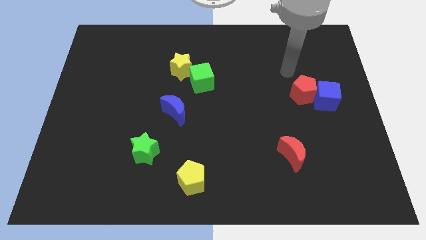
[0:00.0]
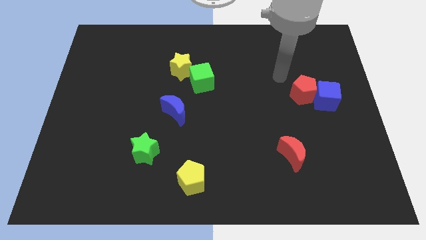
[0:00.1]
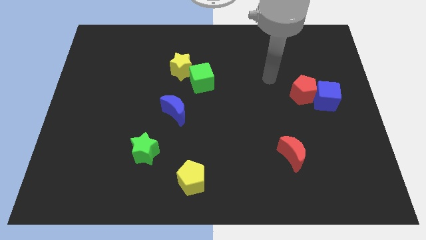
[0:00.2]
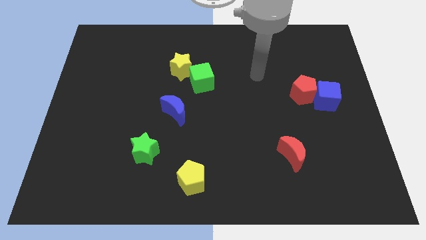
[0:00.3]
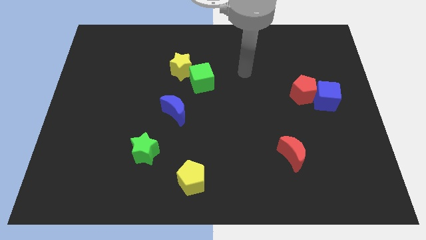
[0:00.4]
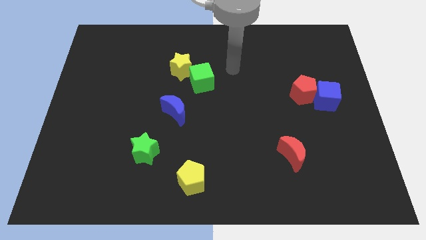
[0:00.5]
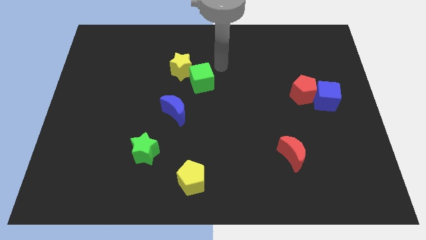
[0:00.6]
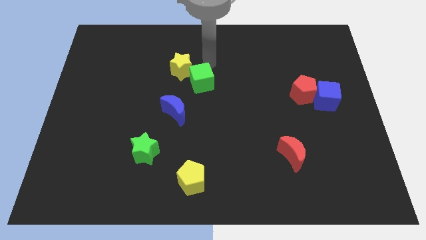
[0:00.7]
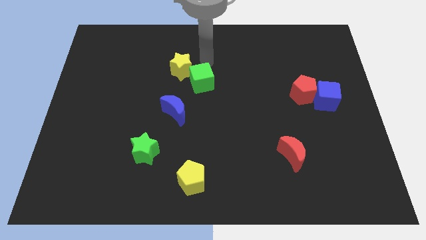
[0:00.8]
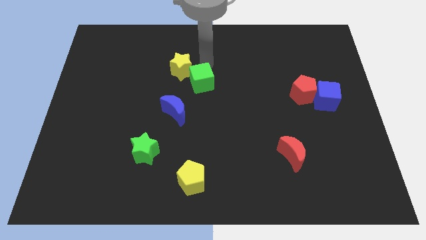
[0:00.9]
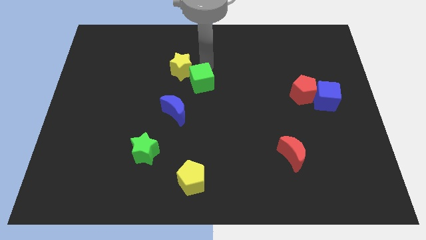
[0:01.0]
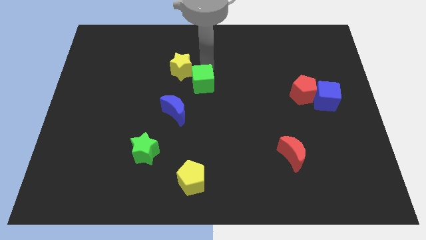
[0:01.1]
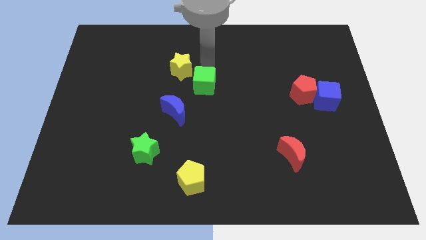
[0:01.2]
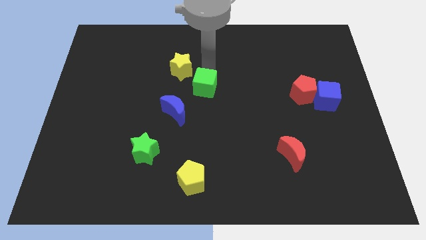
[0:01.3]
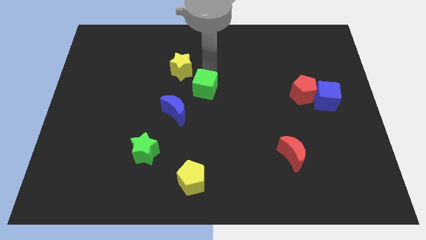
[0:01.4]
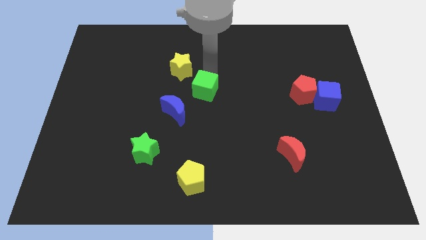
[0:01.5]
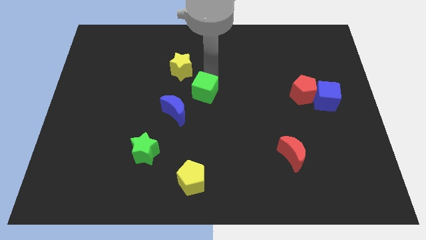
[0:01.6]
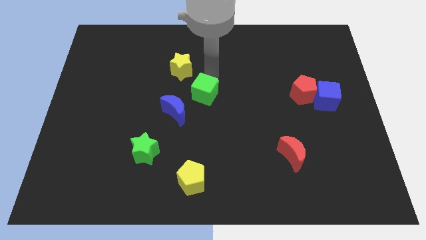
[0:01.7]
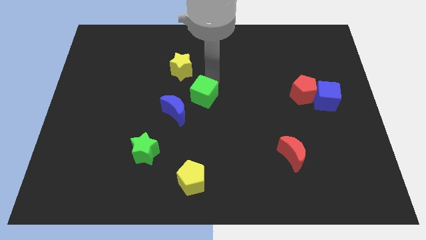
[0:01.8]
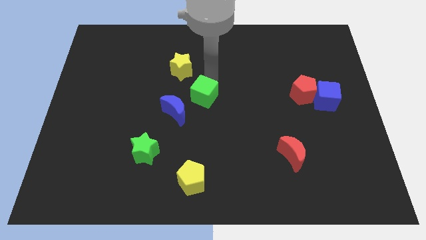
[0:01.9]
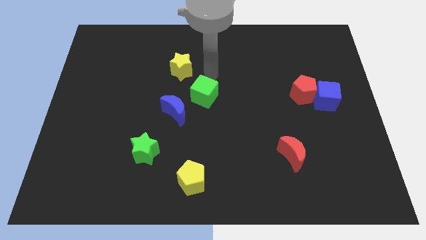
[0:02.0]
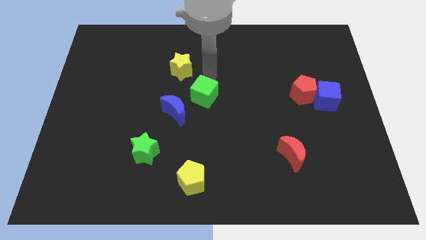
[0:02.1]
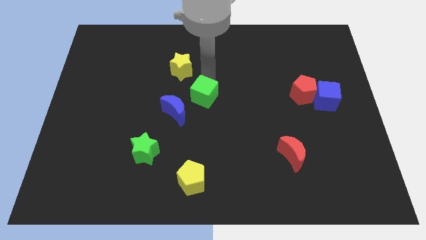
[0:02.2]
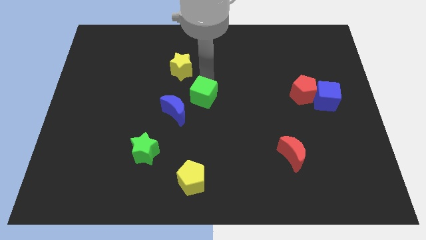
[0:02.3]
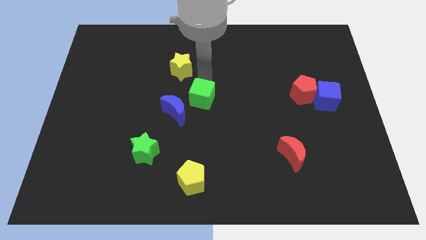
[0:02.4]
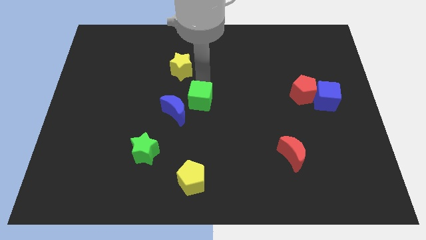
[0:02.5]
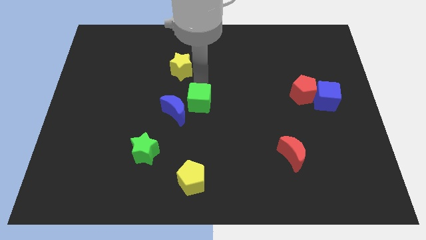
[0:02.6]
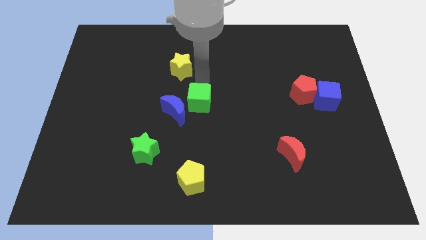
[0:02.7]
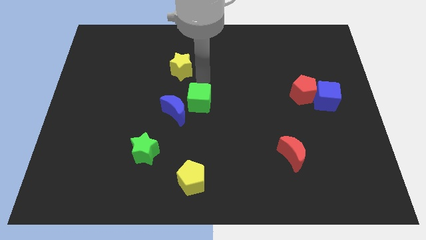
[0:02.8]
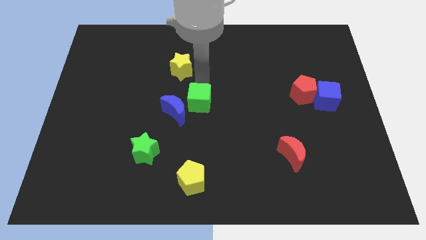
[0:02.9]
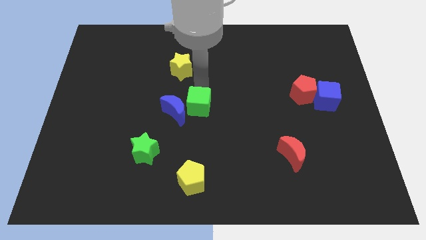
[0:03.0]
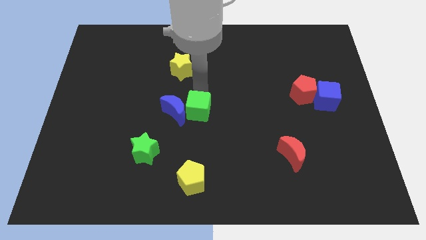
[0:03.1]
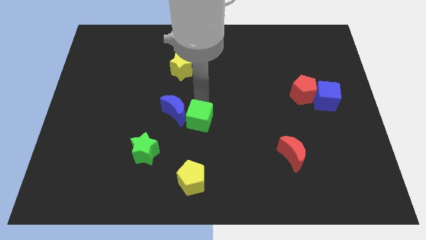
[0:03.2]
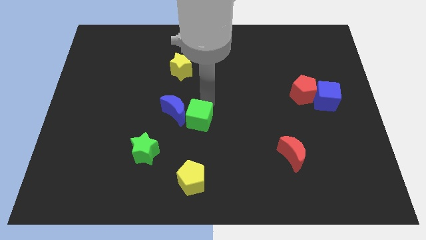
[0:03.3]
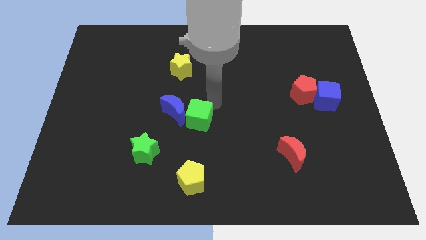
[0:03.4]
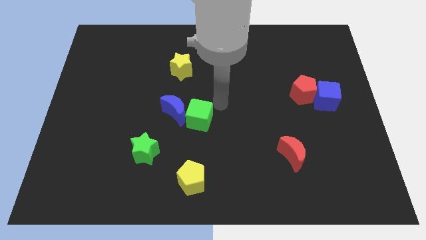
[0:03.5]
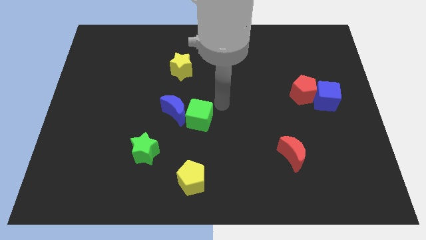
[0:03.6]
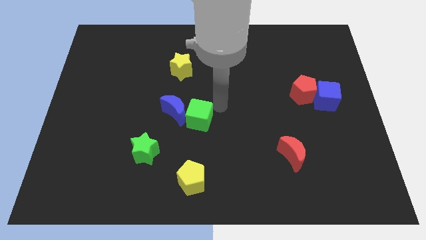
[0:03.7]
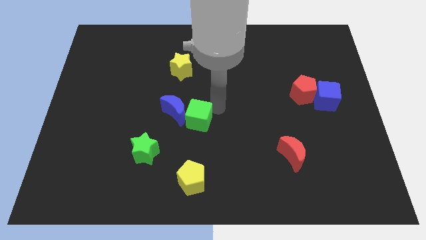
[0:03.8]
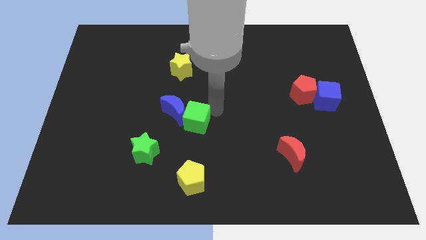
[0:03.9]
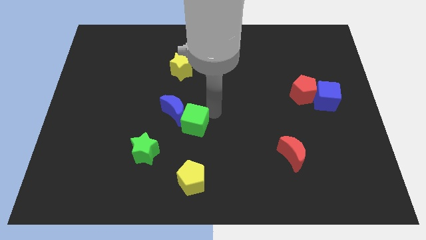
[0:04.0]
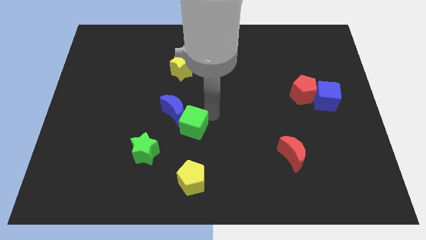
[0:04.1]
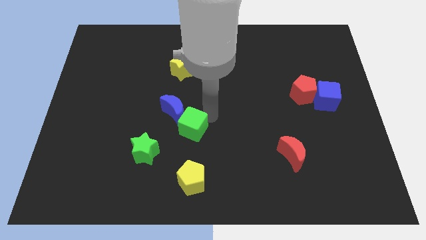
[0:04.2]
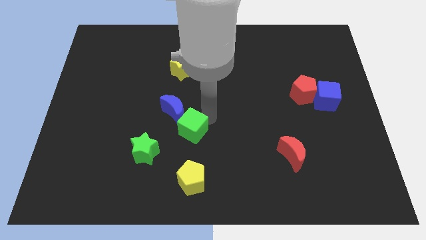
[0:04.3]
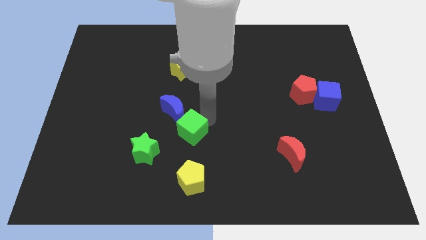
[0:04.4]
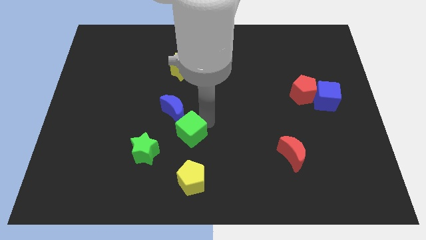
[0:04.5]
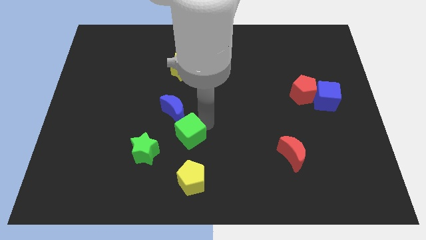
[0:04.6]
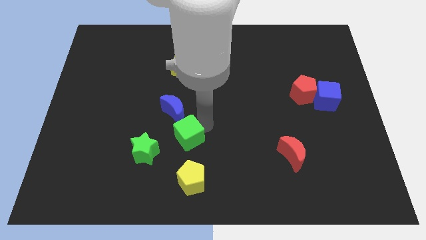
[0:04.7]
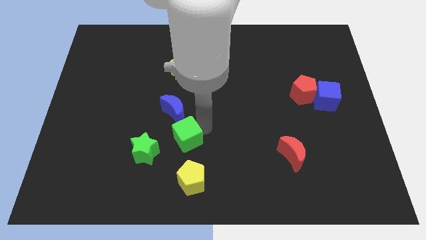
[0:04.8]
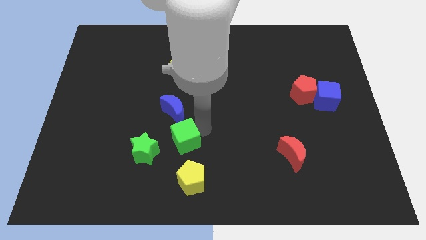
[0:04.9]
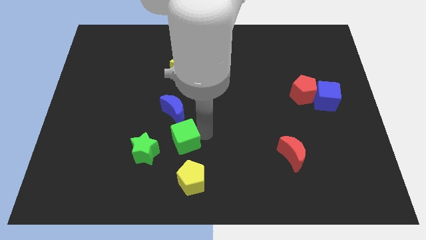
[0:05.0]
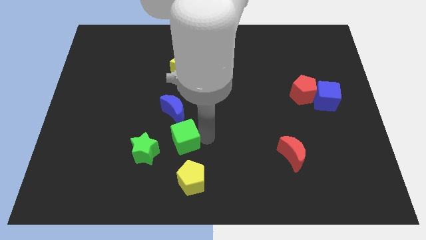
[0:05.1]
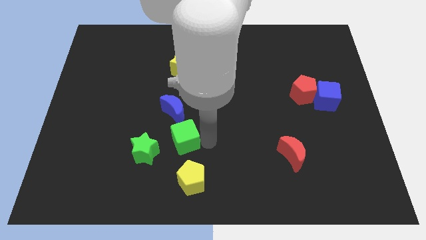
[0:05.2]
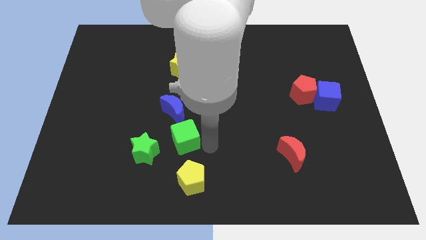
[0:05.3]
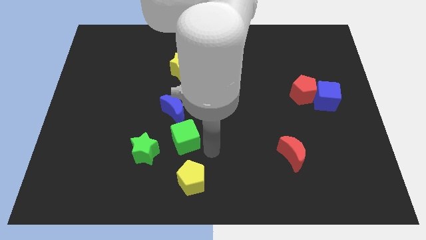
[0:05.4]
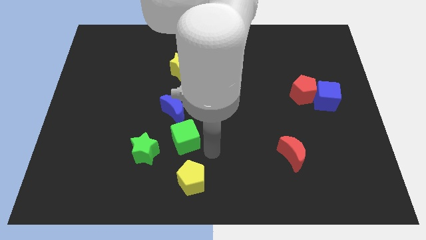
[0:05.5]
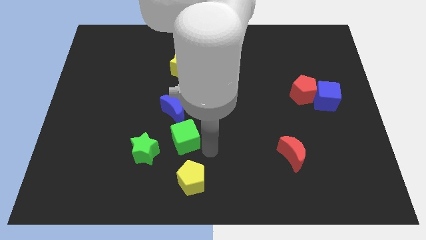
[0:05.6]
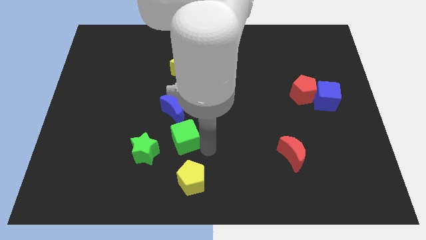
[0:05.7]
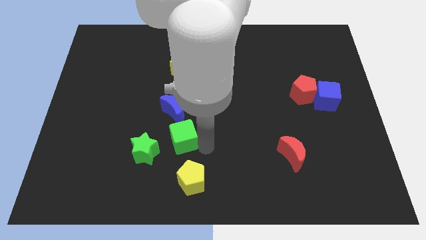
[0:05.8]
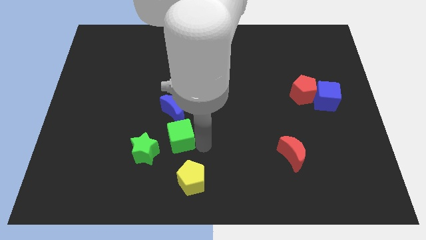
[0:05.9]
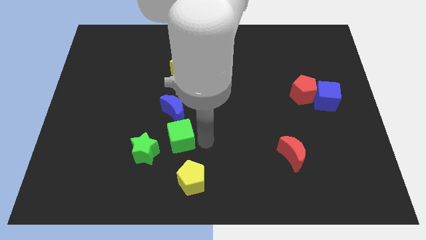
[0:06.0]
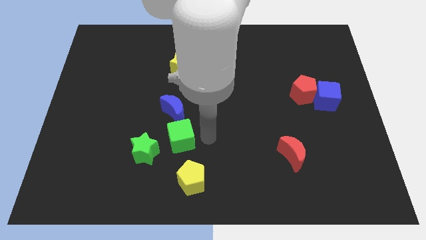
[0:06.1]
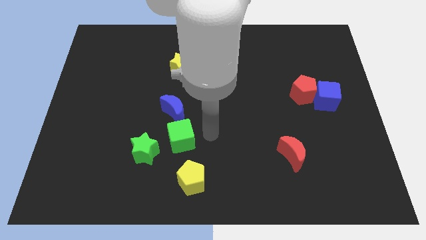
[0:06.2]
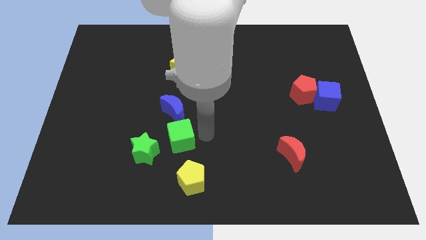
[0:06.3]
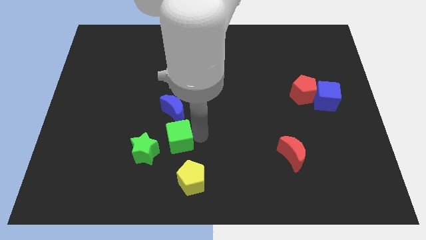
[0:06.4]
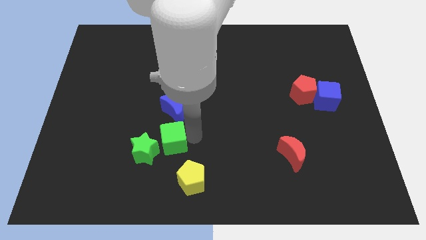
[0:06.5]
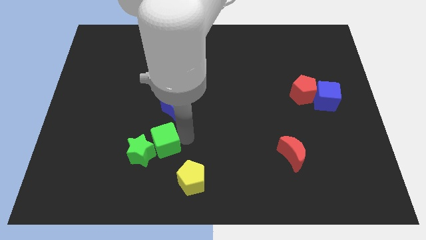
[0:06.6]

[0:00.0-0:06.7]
push the green cube close to the green star
